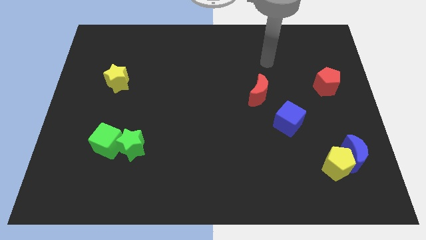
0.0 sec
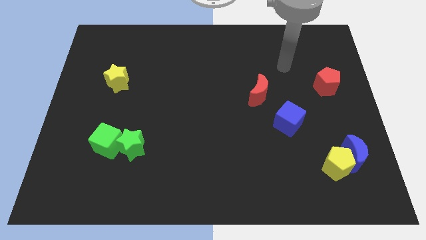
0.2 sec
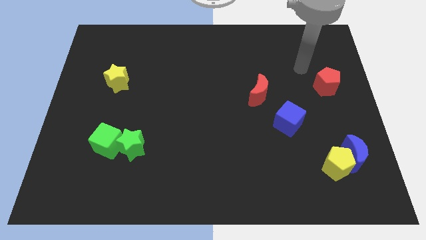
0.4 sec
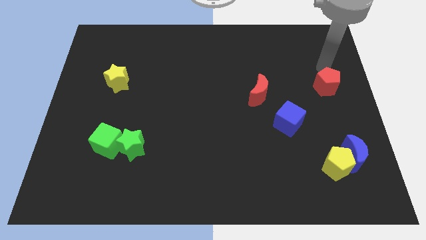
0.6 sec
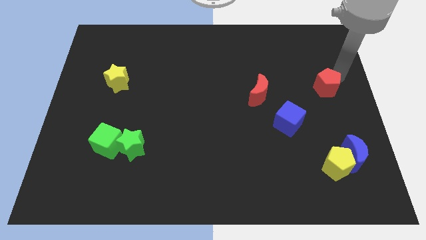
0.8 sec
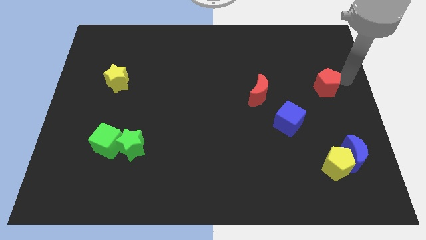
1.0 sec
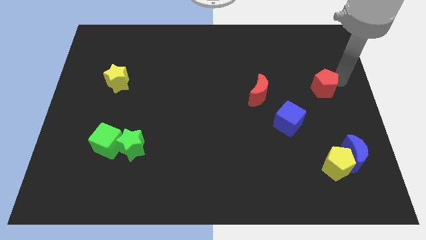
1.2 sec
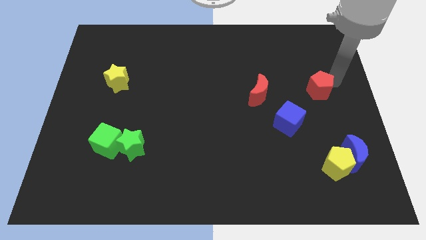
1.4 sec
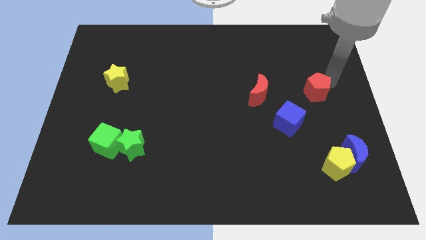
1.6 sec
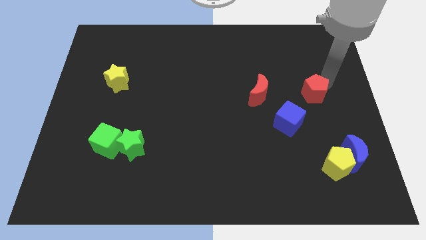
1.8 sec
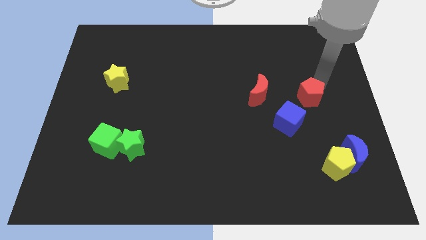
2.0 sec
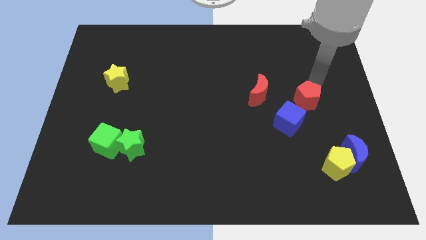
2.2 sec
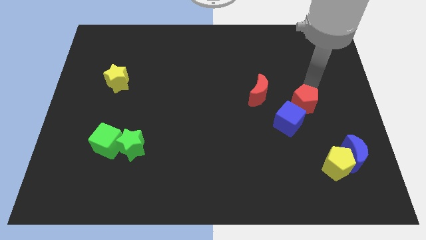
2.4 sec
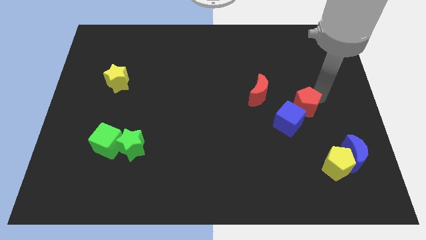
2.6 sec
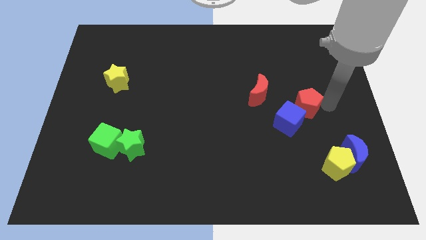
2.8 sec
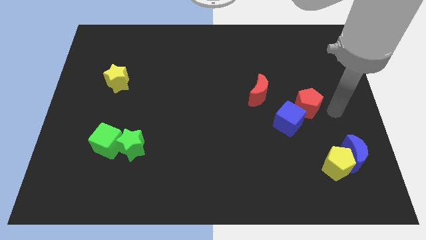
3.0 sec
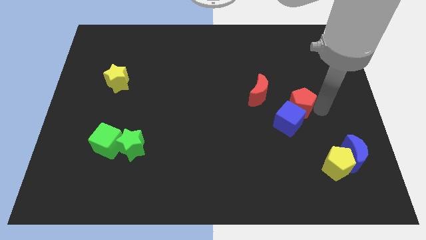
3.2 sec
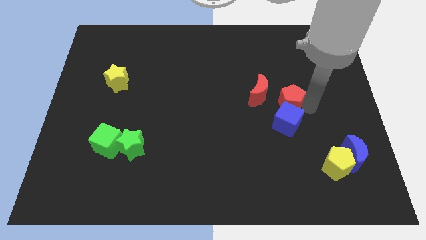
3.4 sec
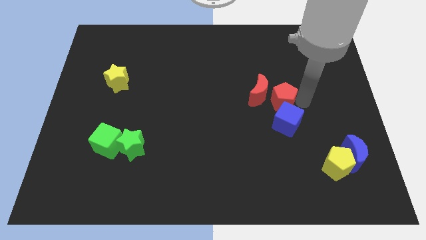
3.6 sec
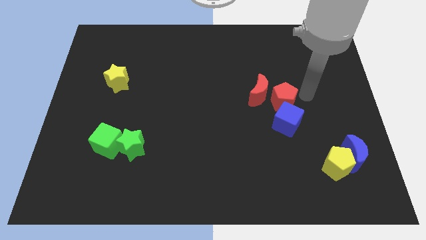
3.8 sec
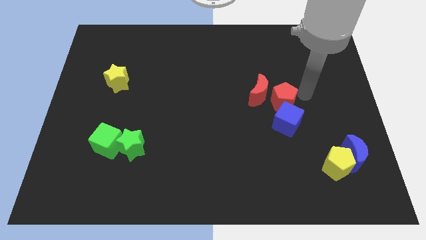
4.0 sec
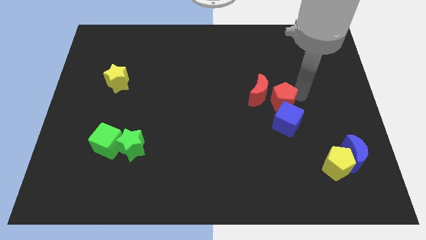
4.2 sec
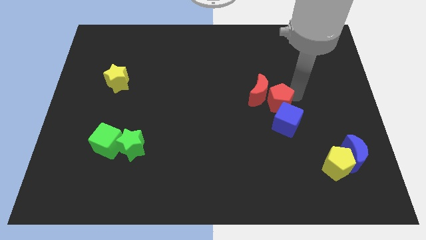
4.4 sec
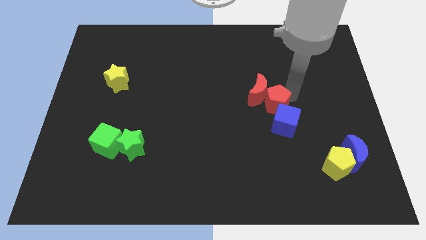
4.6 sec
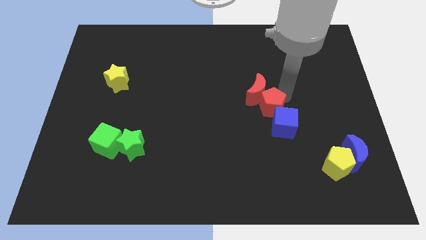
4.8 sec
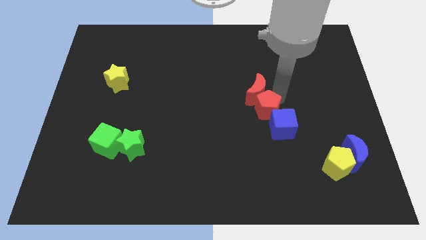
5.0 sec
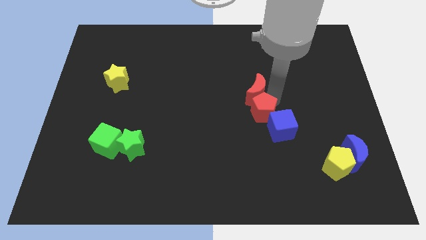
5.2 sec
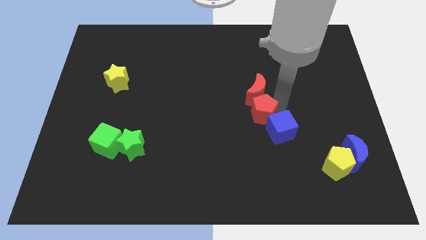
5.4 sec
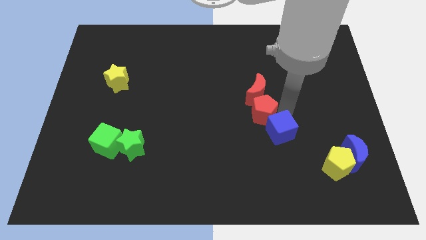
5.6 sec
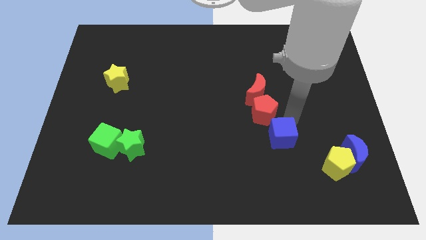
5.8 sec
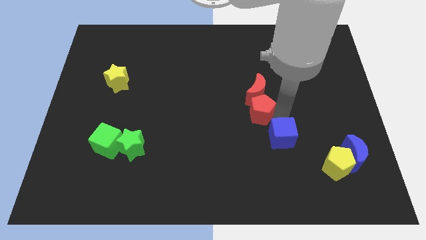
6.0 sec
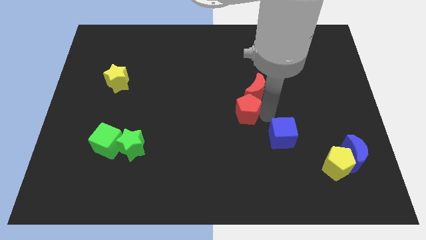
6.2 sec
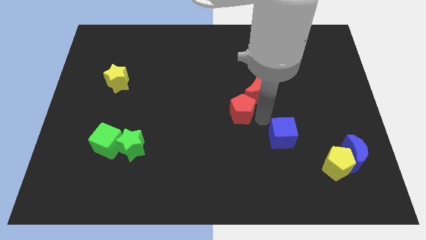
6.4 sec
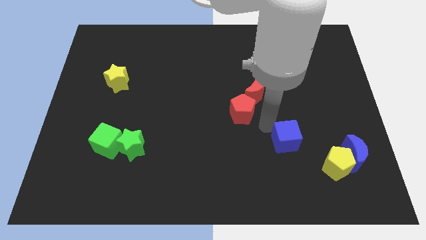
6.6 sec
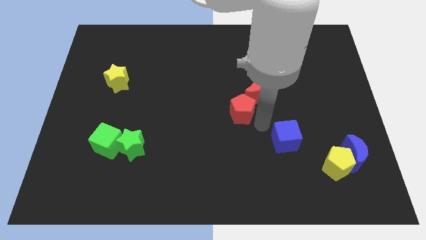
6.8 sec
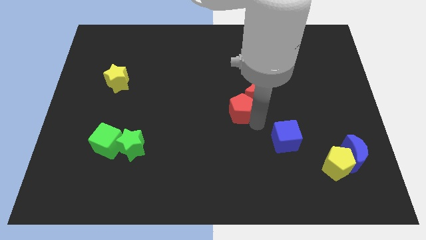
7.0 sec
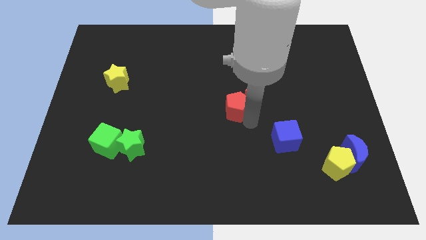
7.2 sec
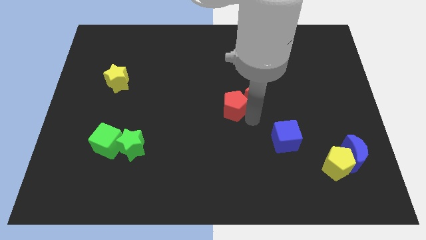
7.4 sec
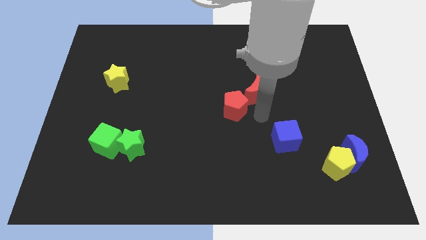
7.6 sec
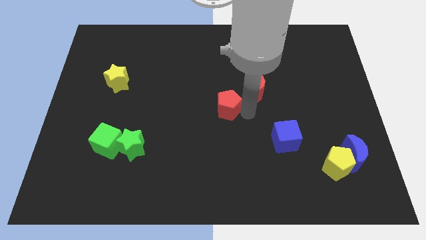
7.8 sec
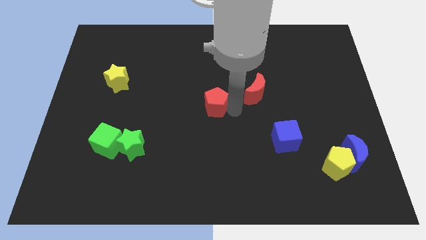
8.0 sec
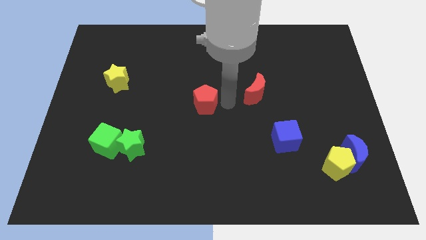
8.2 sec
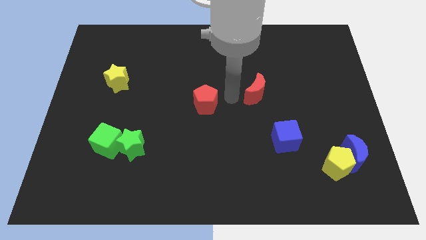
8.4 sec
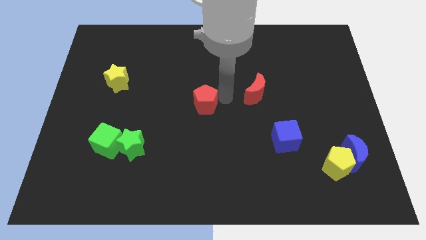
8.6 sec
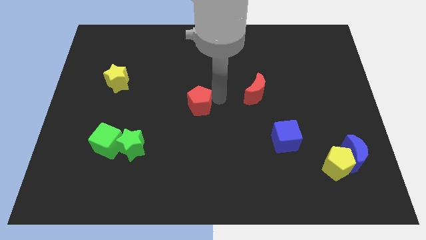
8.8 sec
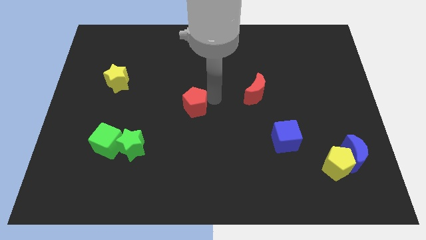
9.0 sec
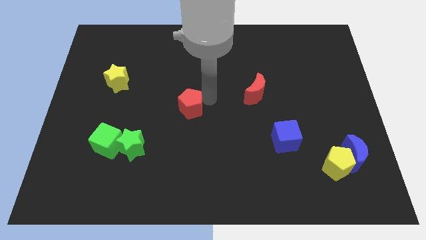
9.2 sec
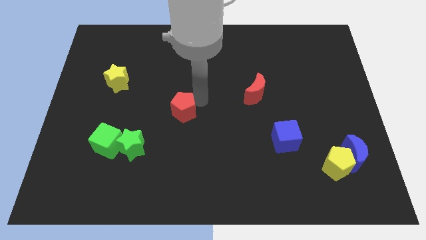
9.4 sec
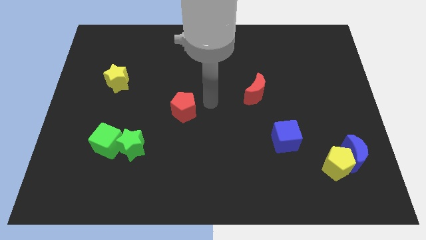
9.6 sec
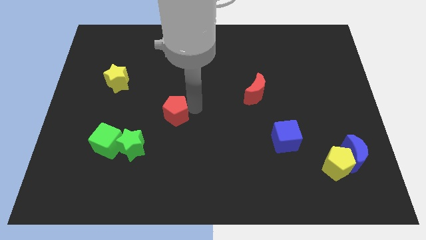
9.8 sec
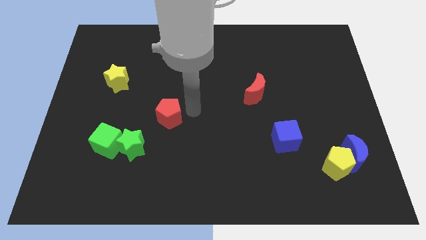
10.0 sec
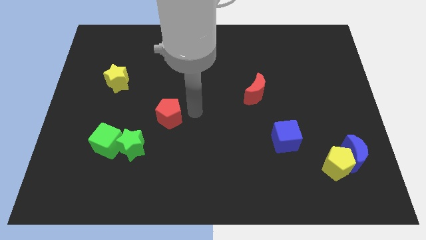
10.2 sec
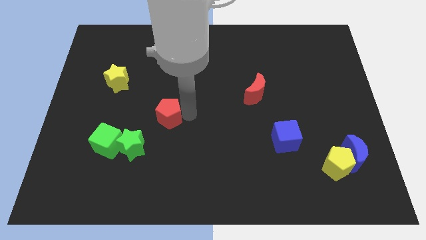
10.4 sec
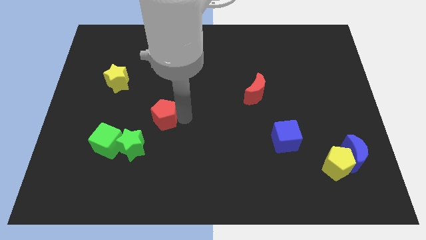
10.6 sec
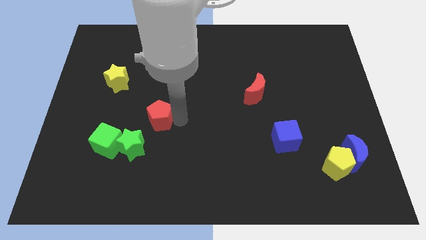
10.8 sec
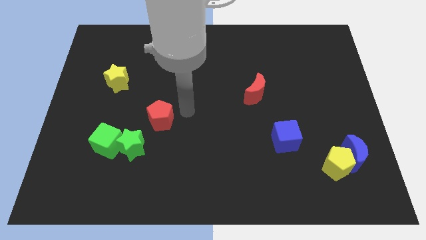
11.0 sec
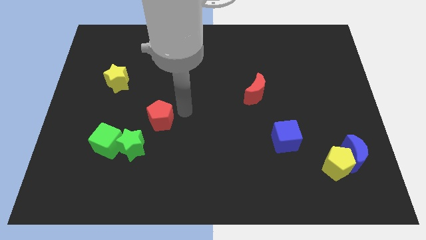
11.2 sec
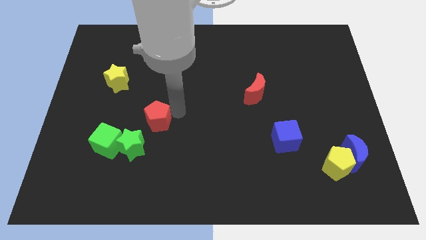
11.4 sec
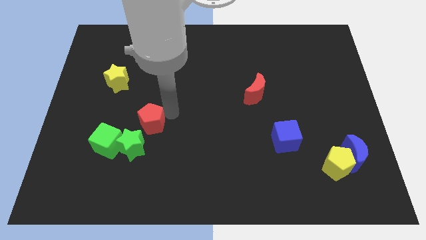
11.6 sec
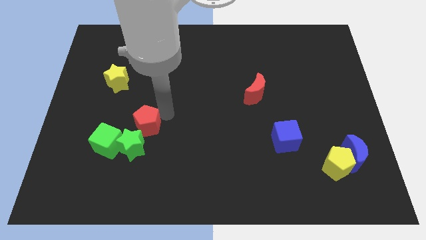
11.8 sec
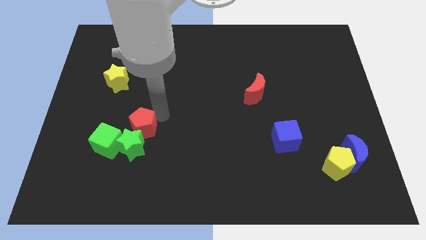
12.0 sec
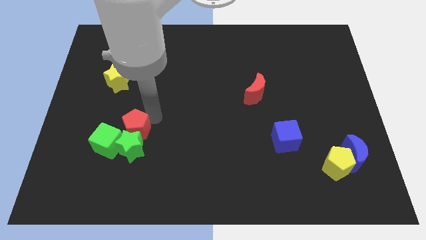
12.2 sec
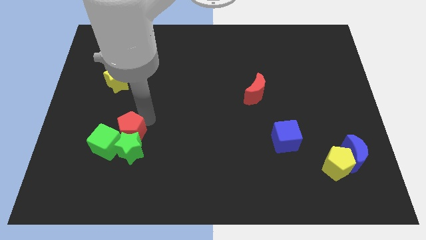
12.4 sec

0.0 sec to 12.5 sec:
slide the red pentagon close to the green cube

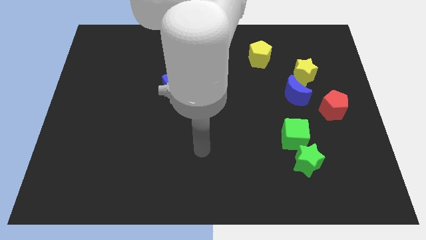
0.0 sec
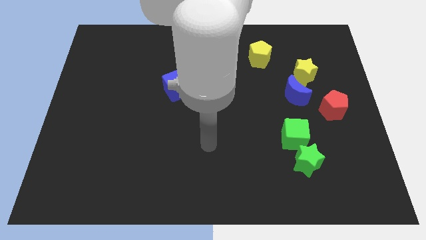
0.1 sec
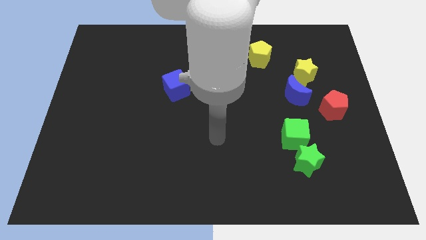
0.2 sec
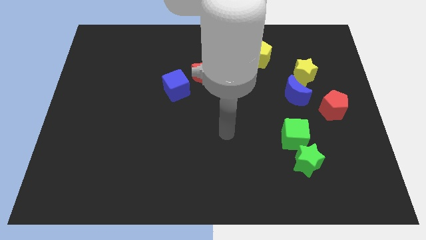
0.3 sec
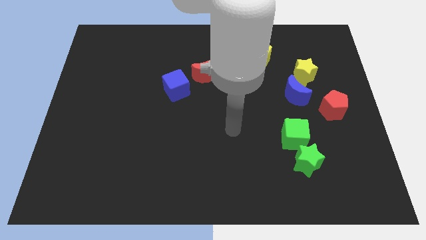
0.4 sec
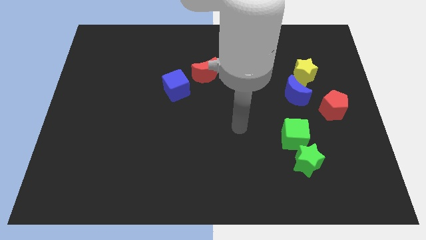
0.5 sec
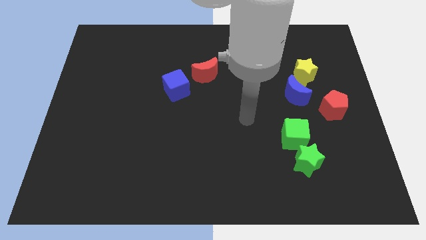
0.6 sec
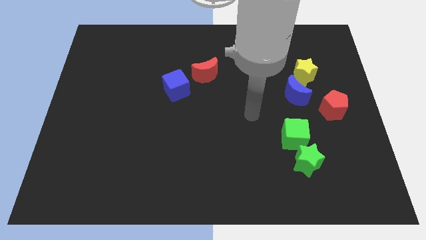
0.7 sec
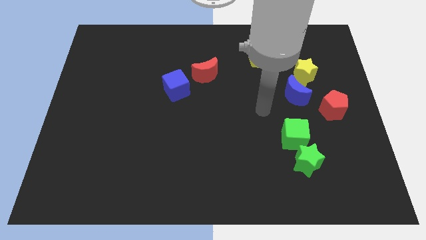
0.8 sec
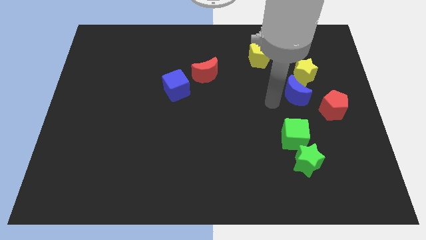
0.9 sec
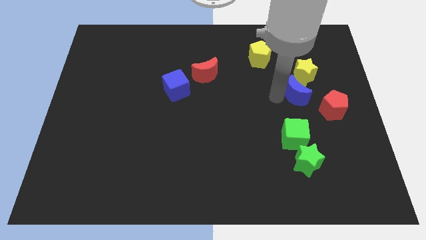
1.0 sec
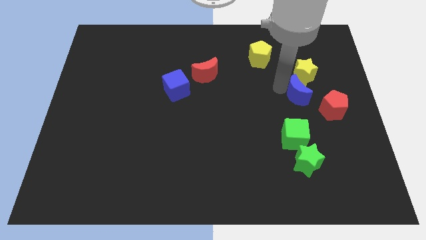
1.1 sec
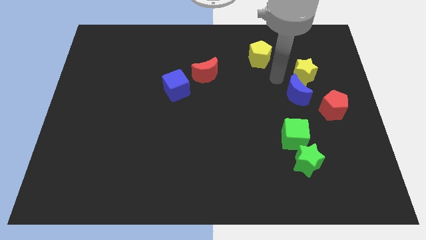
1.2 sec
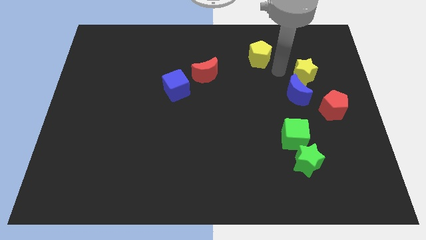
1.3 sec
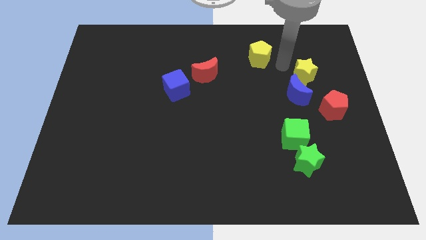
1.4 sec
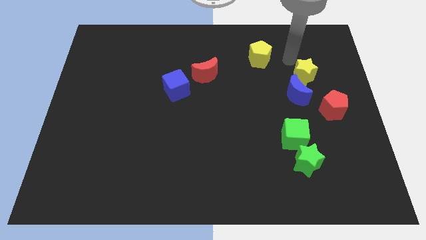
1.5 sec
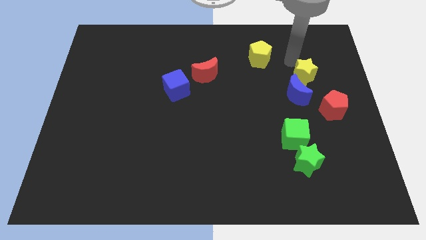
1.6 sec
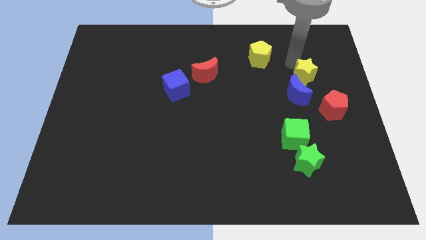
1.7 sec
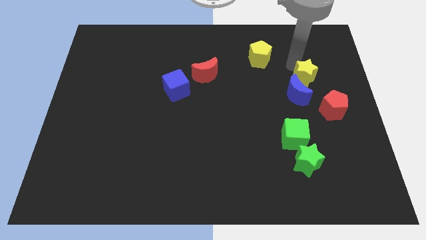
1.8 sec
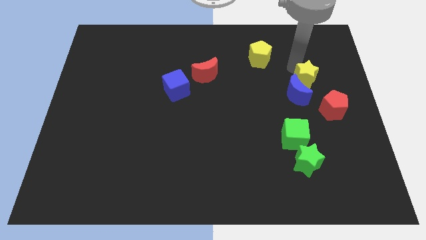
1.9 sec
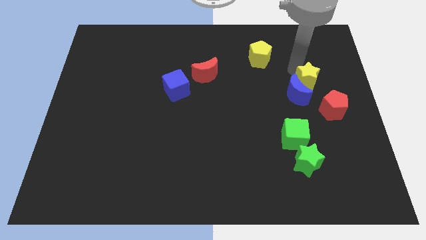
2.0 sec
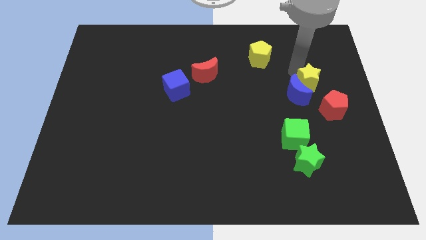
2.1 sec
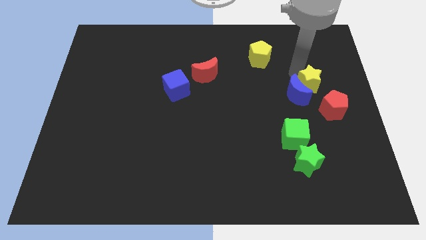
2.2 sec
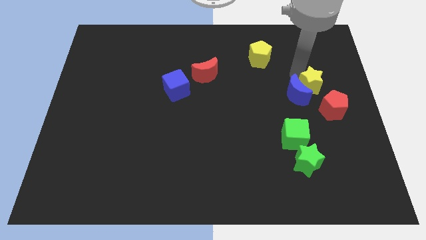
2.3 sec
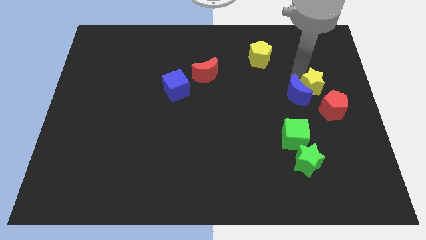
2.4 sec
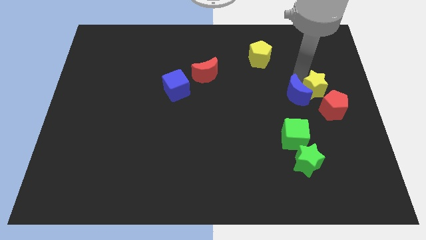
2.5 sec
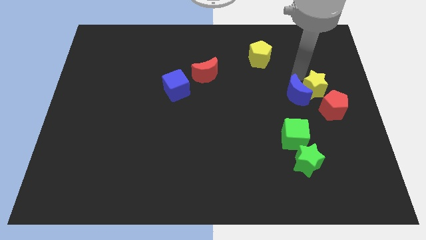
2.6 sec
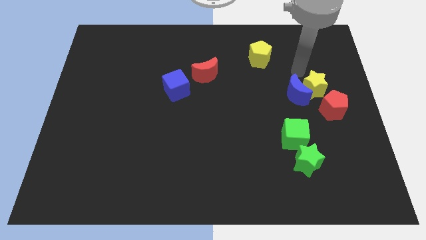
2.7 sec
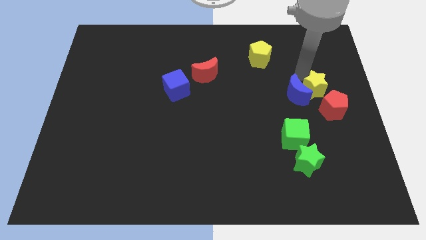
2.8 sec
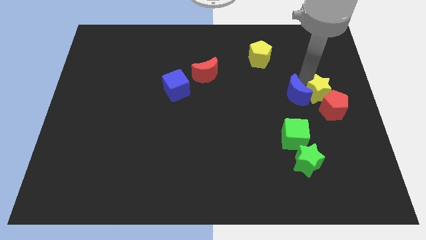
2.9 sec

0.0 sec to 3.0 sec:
push the yellow star towards the red pentagon
